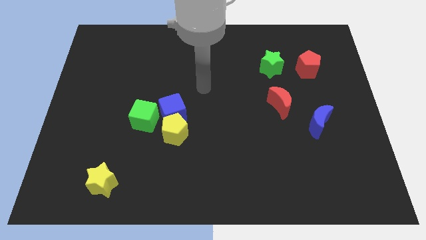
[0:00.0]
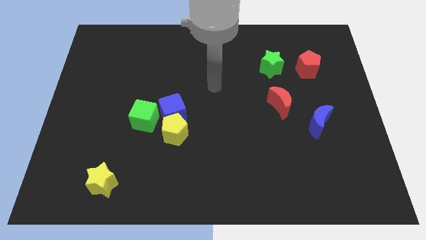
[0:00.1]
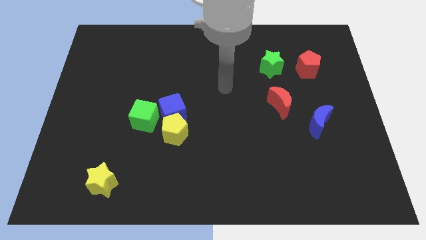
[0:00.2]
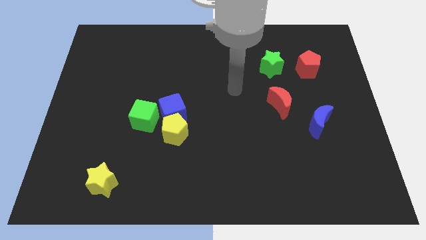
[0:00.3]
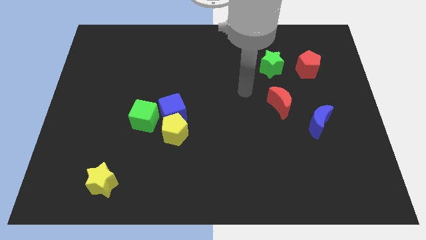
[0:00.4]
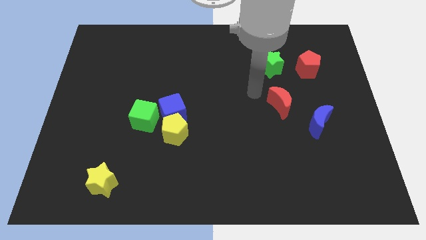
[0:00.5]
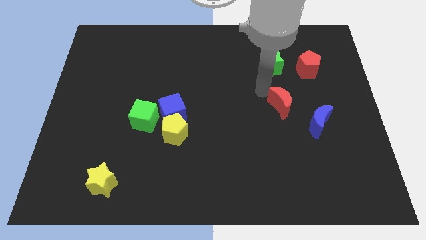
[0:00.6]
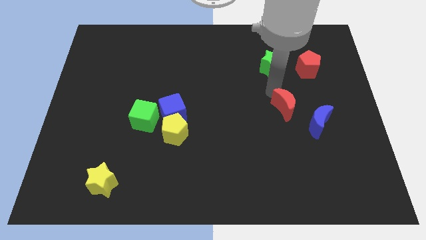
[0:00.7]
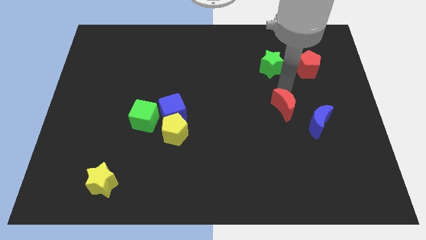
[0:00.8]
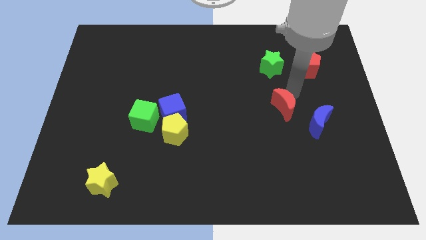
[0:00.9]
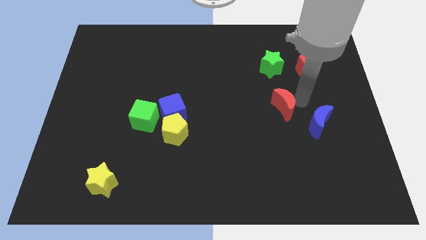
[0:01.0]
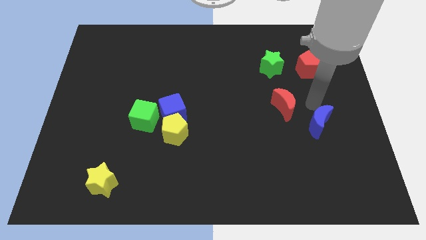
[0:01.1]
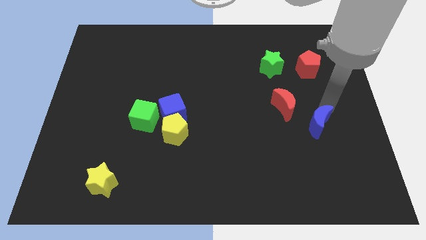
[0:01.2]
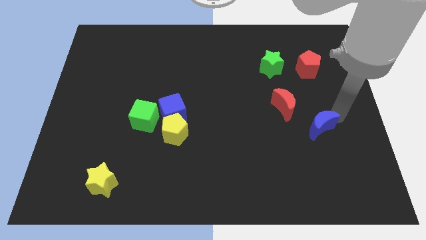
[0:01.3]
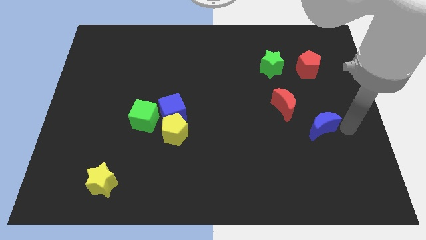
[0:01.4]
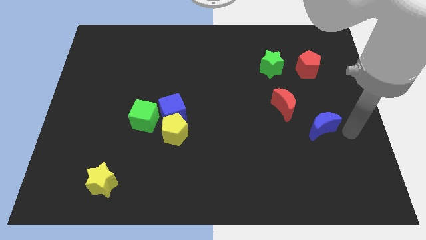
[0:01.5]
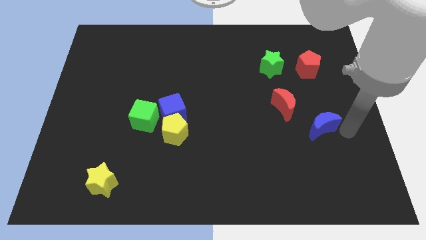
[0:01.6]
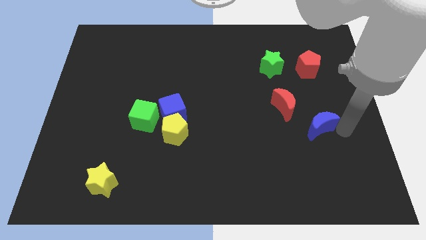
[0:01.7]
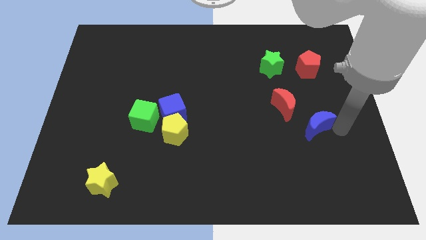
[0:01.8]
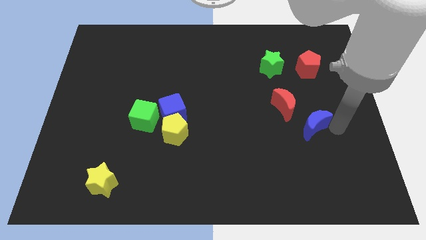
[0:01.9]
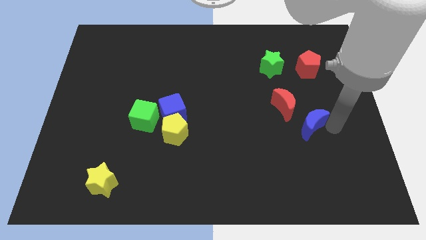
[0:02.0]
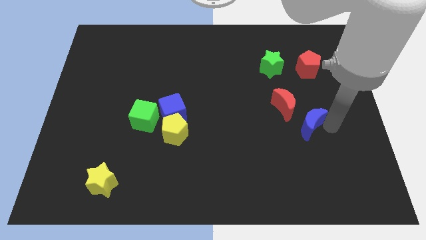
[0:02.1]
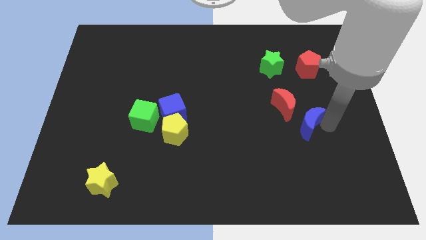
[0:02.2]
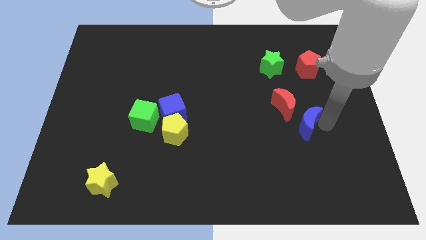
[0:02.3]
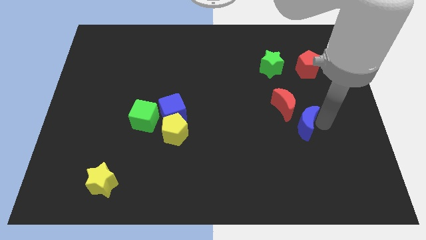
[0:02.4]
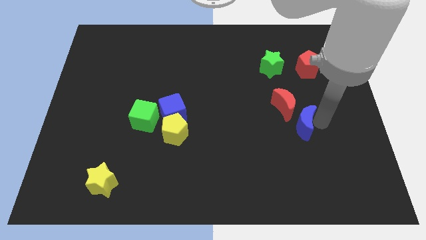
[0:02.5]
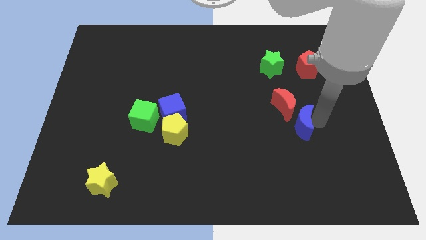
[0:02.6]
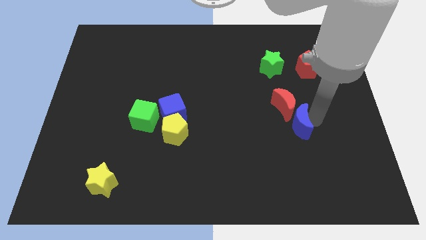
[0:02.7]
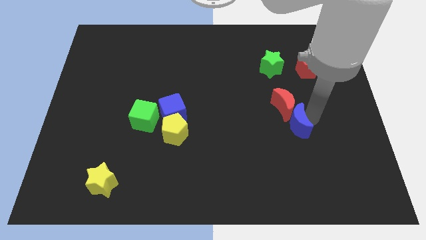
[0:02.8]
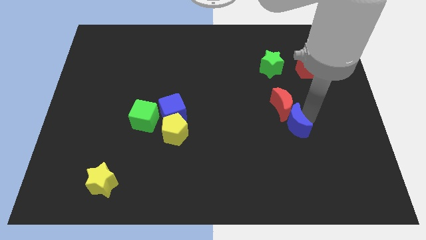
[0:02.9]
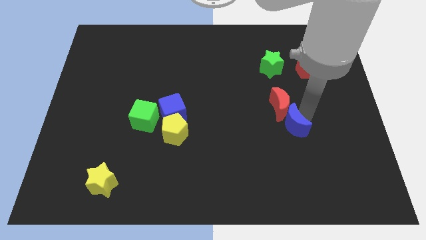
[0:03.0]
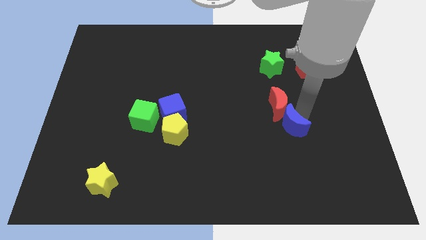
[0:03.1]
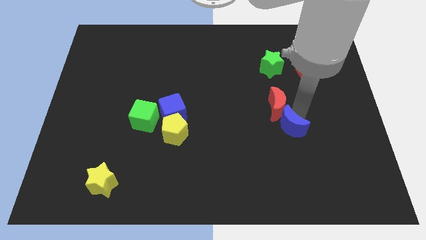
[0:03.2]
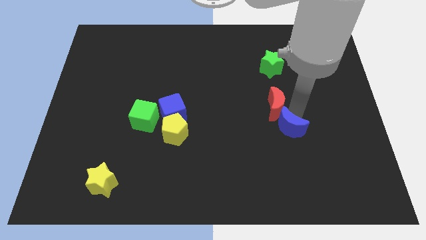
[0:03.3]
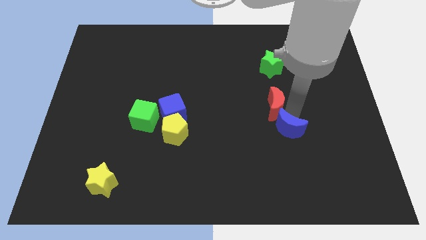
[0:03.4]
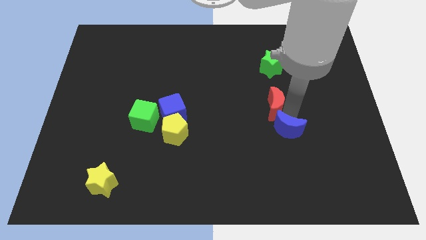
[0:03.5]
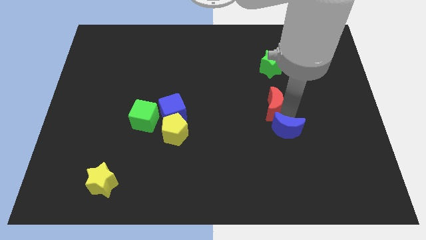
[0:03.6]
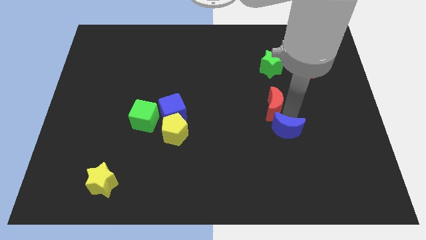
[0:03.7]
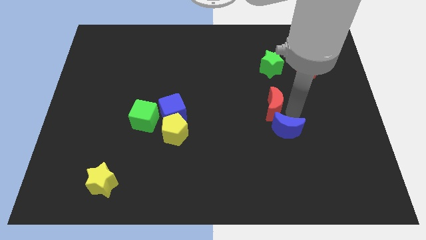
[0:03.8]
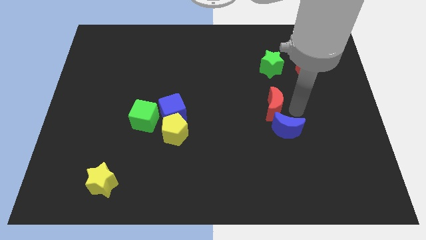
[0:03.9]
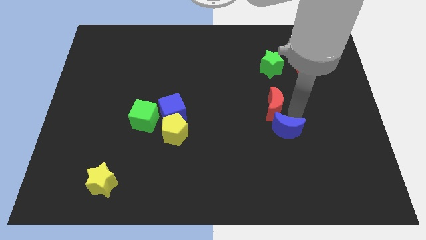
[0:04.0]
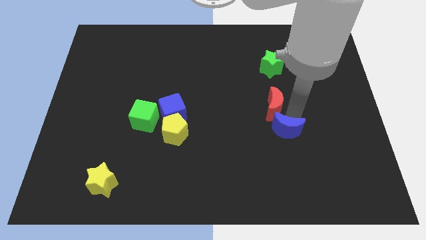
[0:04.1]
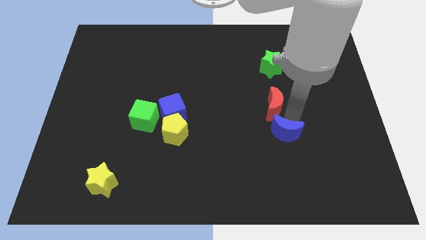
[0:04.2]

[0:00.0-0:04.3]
push the blue moon a bit down and to the left diagonally

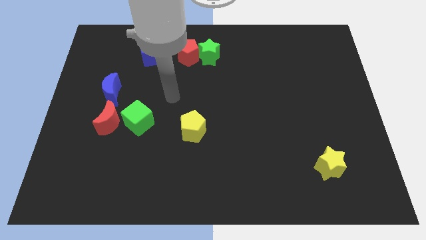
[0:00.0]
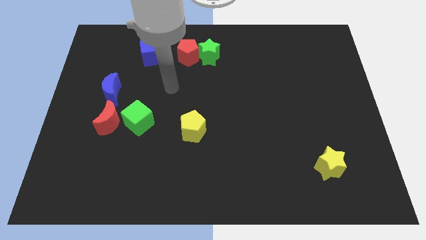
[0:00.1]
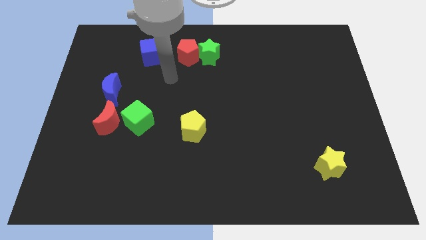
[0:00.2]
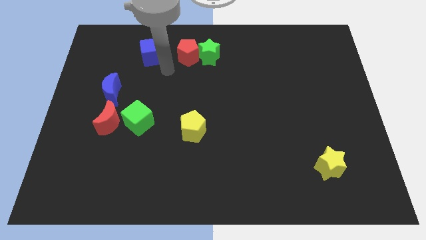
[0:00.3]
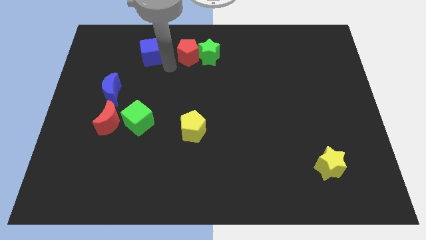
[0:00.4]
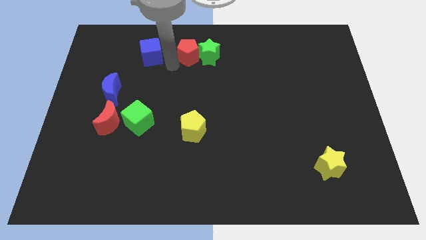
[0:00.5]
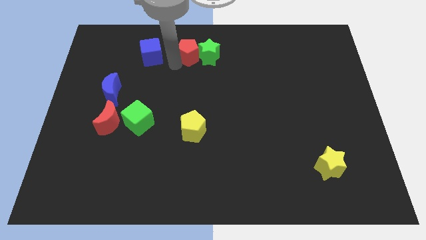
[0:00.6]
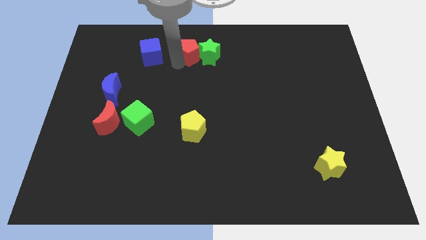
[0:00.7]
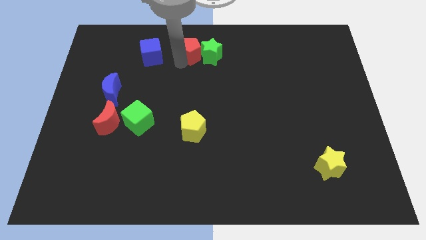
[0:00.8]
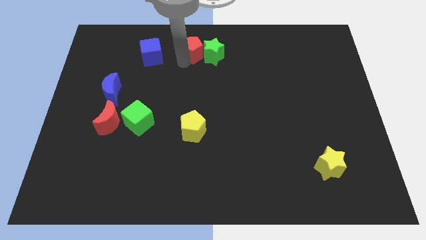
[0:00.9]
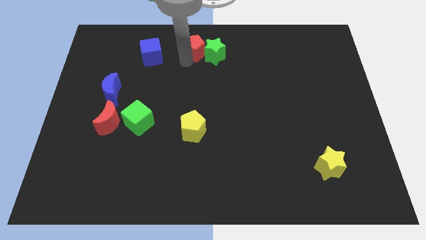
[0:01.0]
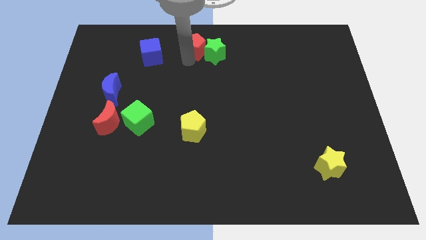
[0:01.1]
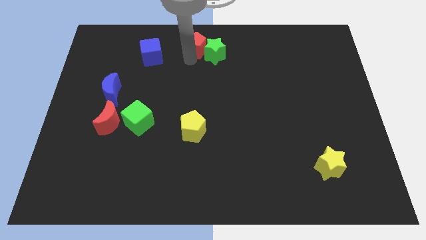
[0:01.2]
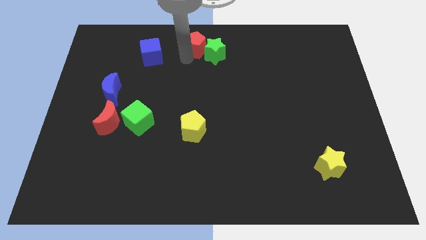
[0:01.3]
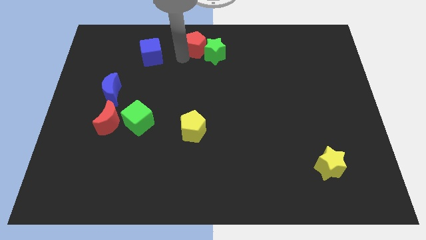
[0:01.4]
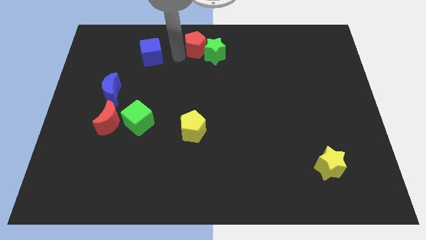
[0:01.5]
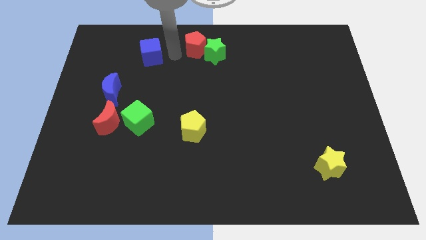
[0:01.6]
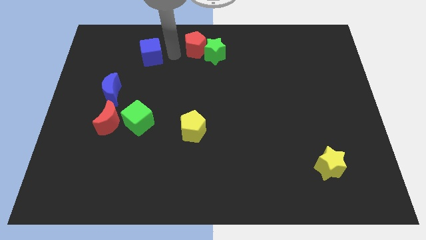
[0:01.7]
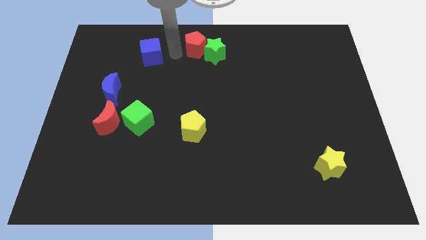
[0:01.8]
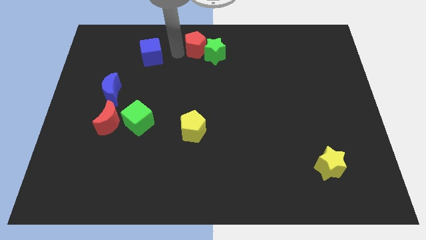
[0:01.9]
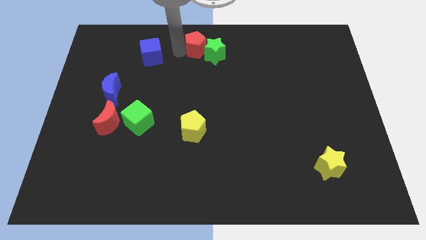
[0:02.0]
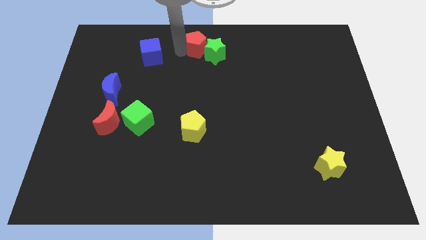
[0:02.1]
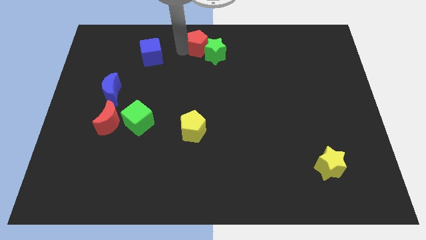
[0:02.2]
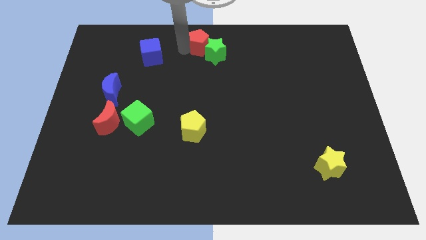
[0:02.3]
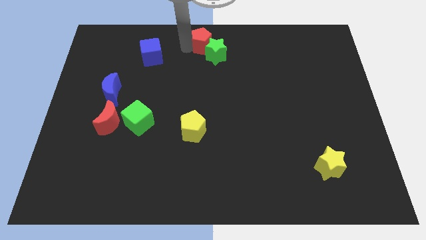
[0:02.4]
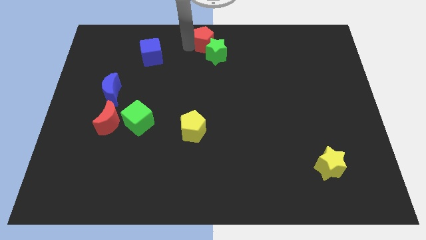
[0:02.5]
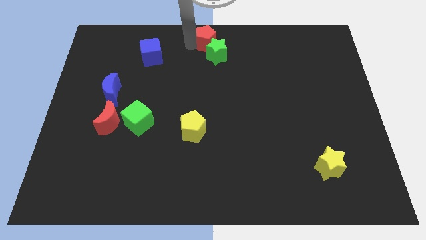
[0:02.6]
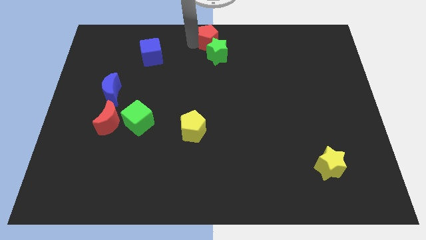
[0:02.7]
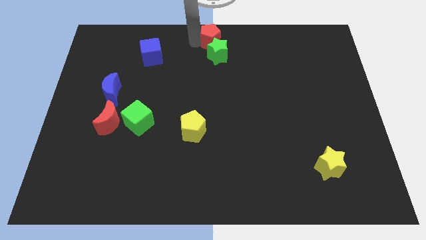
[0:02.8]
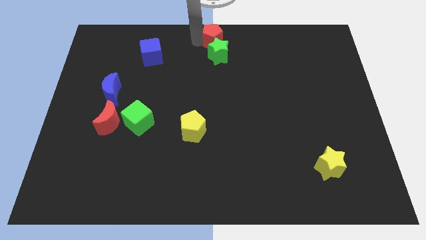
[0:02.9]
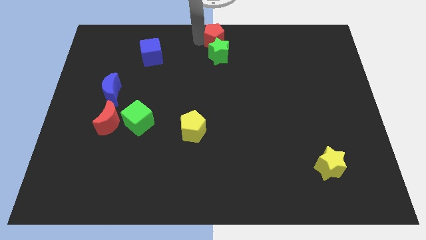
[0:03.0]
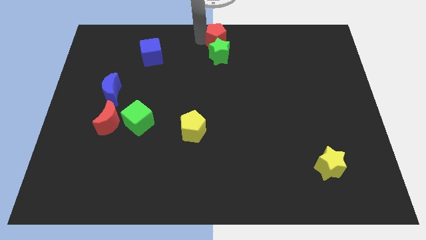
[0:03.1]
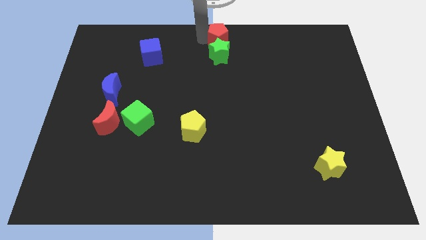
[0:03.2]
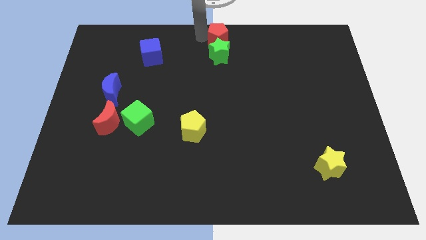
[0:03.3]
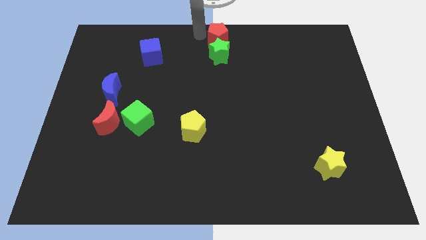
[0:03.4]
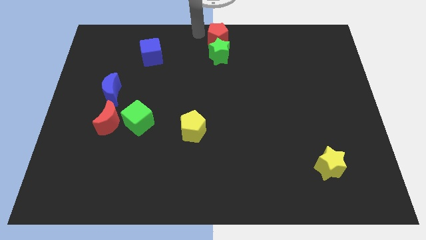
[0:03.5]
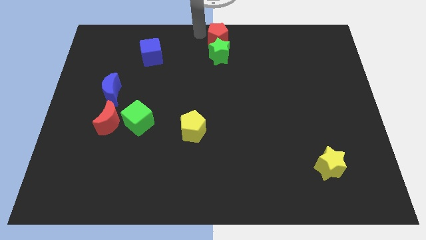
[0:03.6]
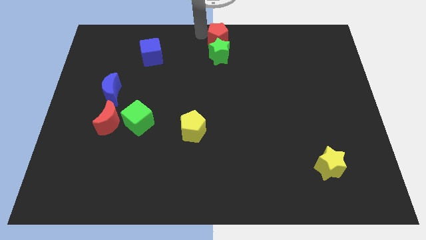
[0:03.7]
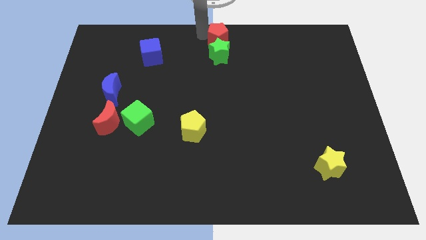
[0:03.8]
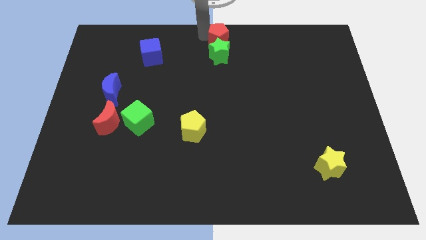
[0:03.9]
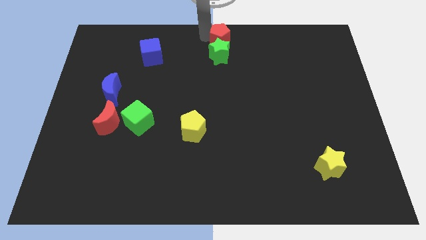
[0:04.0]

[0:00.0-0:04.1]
move the red pentagon a little right
